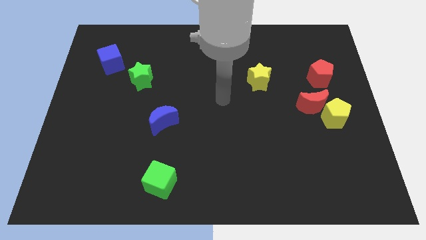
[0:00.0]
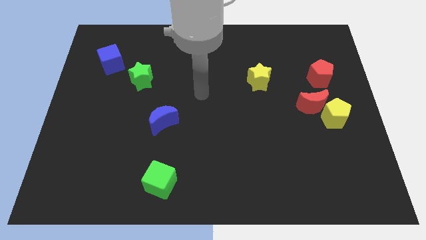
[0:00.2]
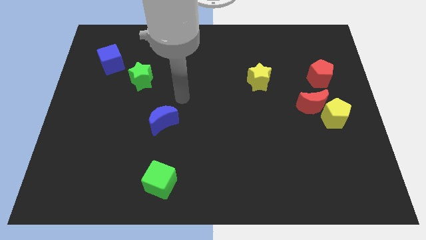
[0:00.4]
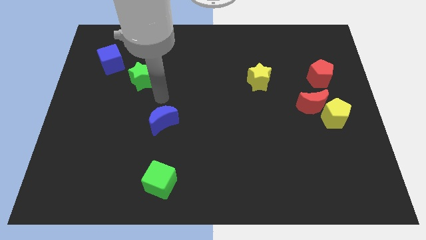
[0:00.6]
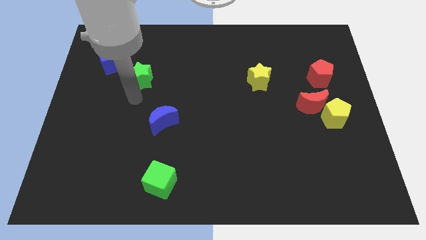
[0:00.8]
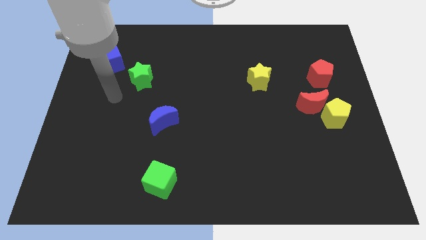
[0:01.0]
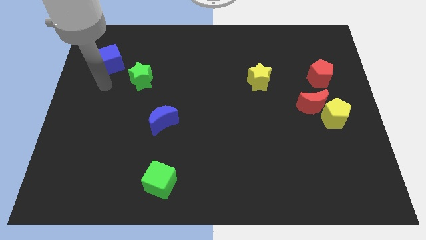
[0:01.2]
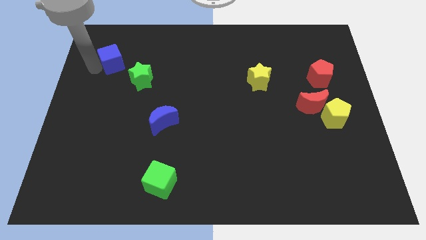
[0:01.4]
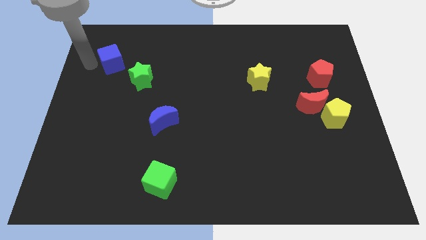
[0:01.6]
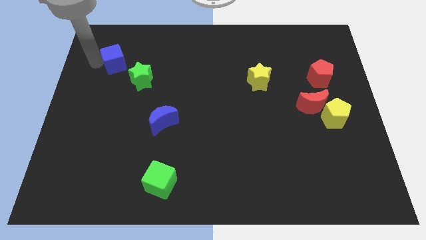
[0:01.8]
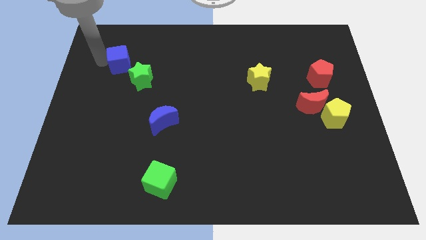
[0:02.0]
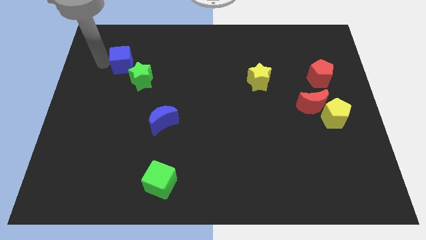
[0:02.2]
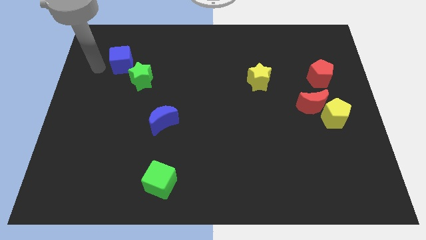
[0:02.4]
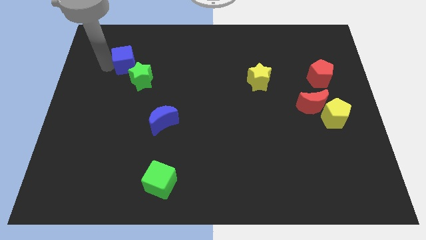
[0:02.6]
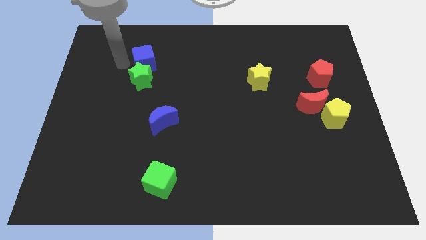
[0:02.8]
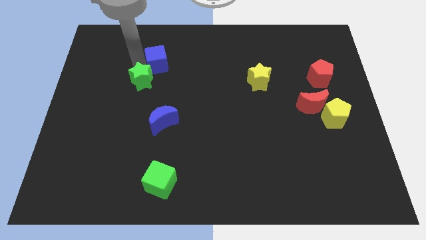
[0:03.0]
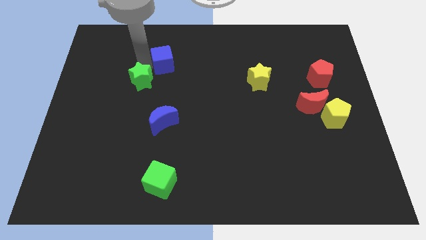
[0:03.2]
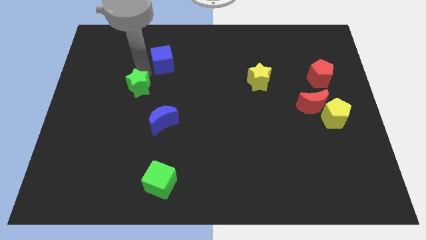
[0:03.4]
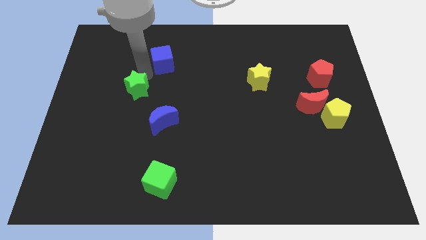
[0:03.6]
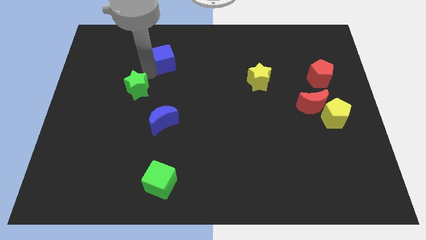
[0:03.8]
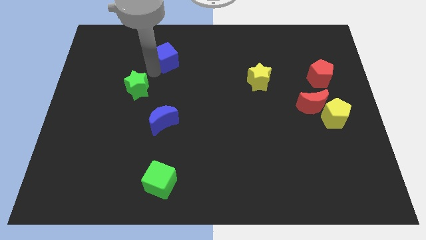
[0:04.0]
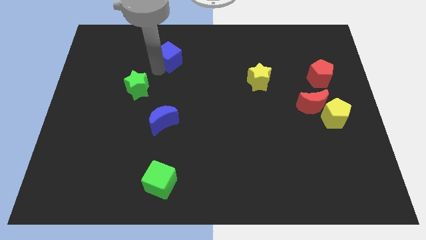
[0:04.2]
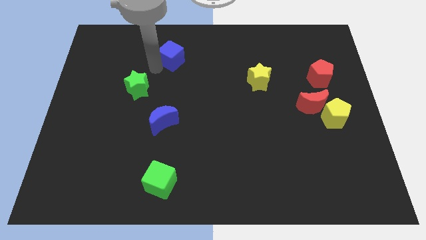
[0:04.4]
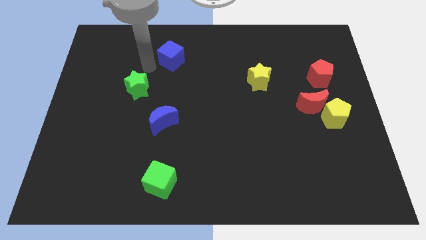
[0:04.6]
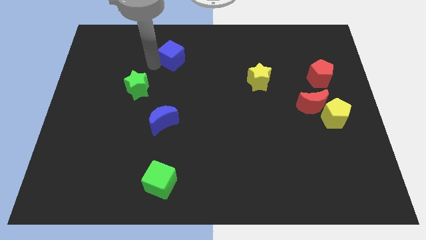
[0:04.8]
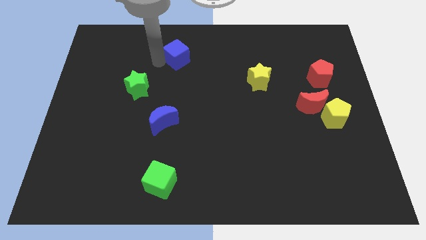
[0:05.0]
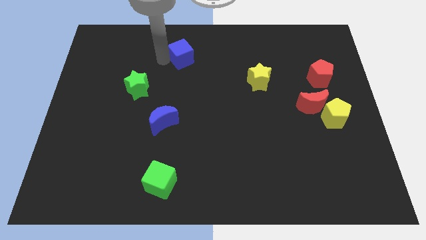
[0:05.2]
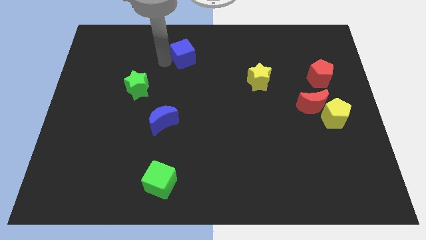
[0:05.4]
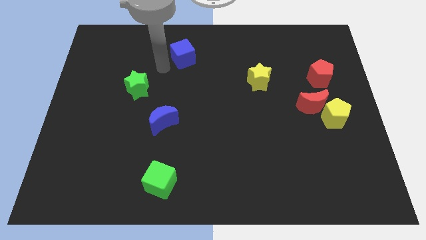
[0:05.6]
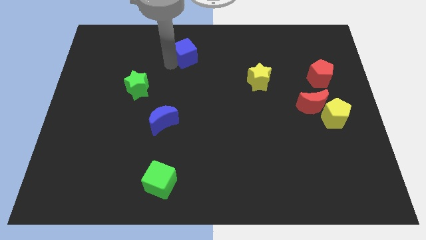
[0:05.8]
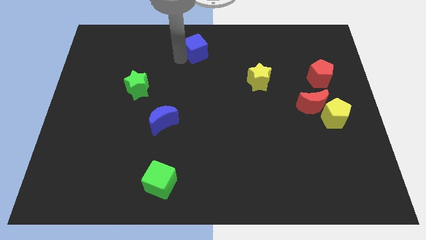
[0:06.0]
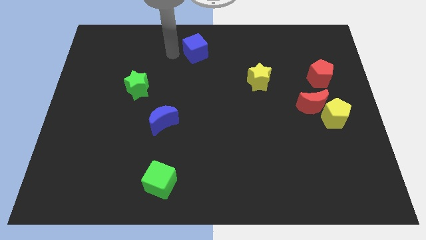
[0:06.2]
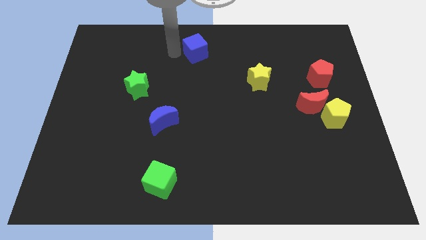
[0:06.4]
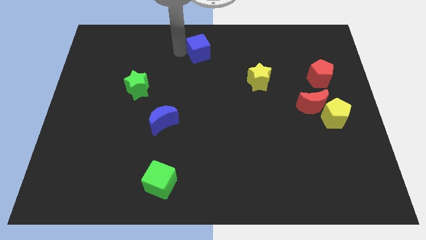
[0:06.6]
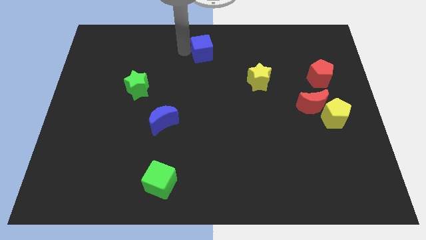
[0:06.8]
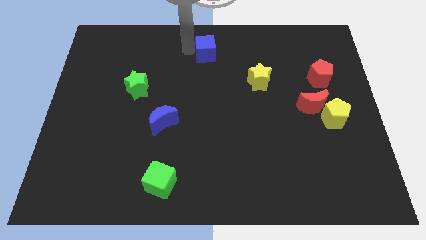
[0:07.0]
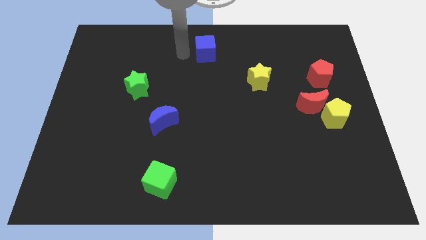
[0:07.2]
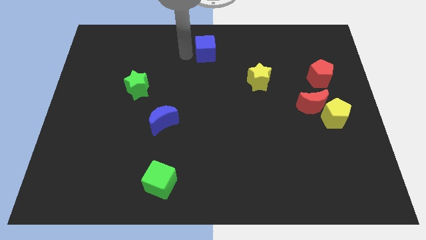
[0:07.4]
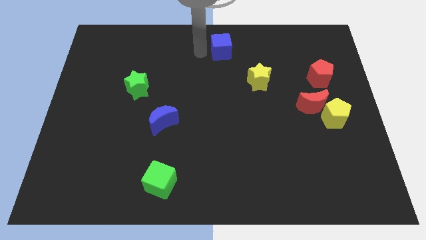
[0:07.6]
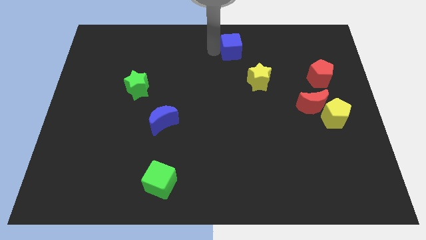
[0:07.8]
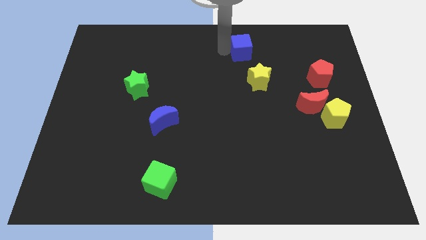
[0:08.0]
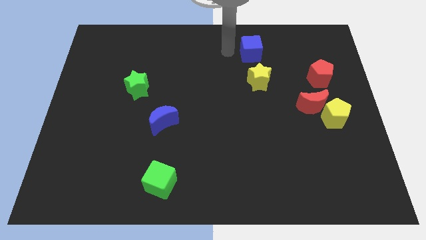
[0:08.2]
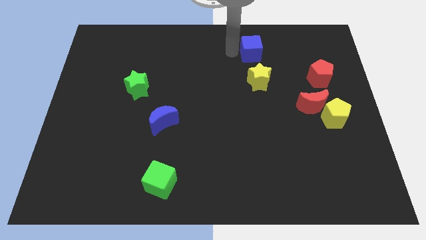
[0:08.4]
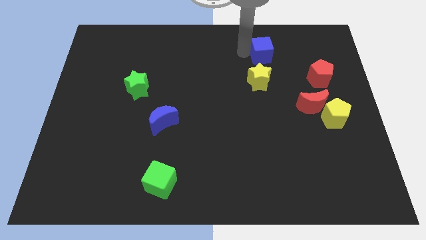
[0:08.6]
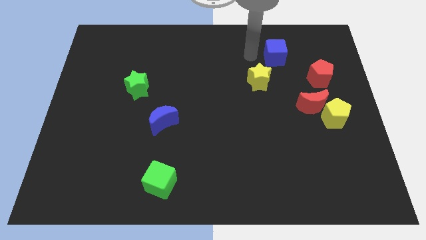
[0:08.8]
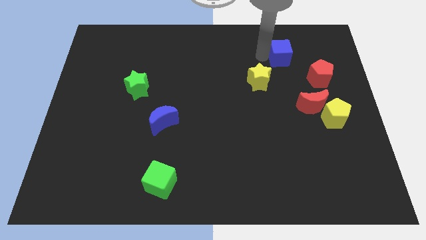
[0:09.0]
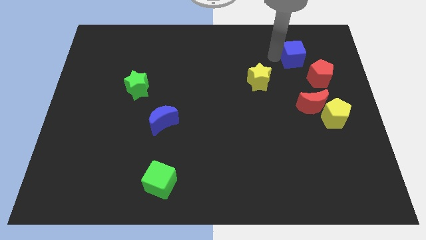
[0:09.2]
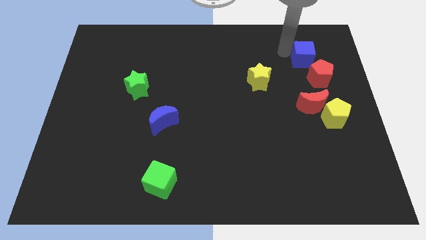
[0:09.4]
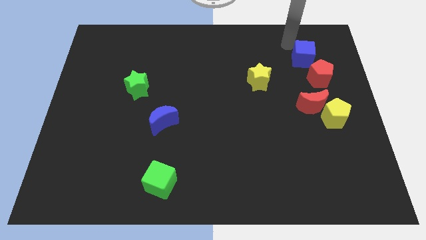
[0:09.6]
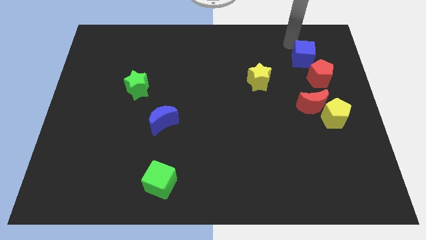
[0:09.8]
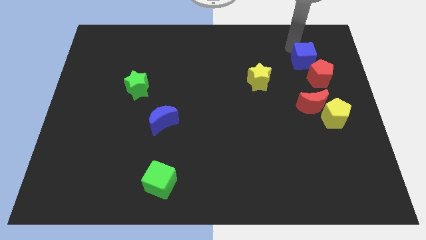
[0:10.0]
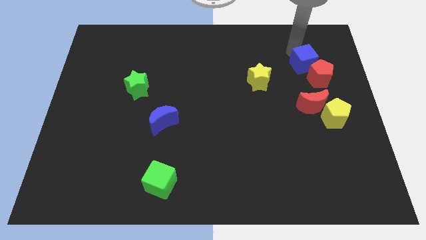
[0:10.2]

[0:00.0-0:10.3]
move the blue cube towards the red pentagon

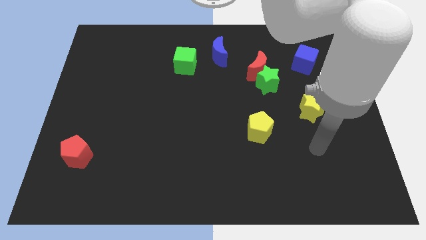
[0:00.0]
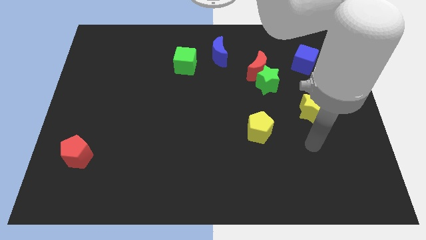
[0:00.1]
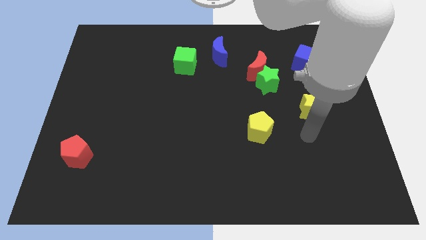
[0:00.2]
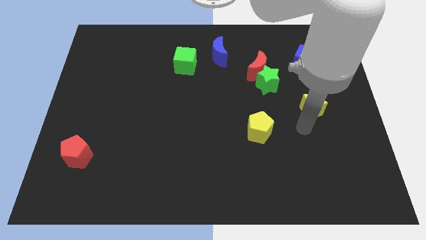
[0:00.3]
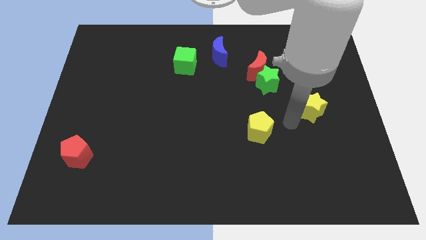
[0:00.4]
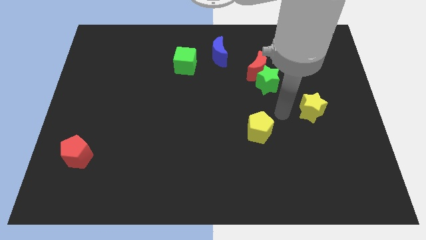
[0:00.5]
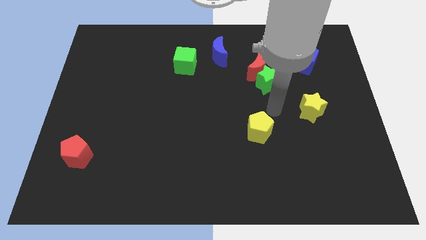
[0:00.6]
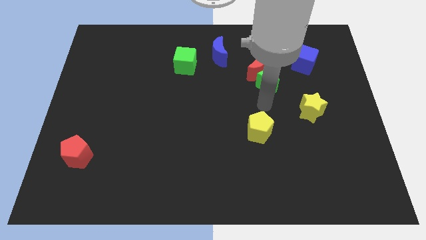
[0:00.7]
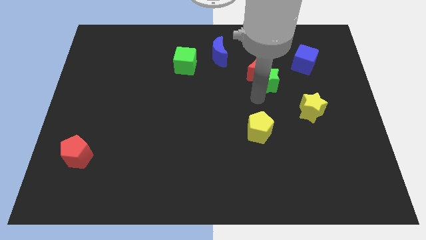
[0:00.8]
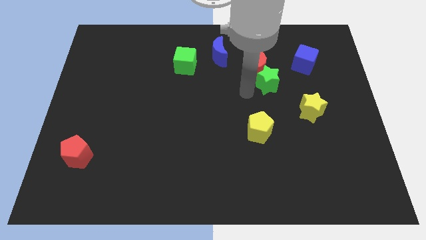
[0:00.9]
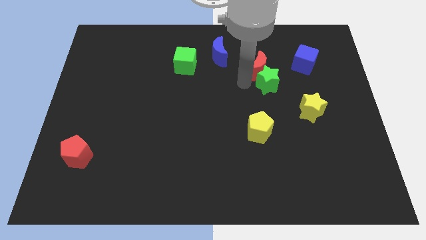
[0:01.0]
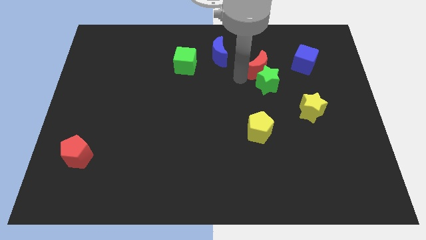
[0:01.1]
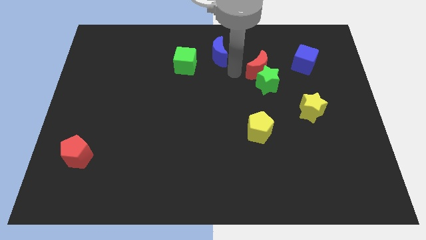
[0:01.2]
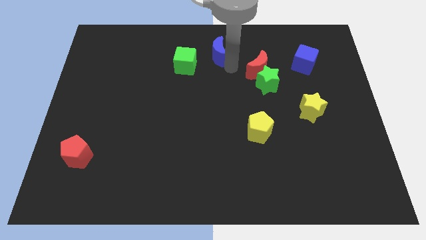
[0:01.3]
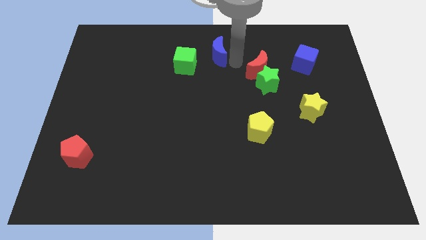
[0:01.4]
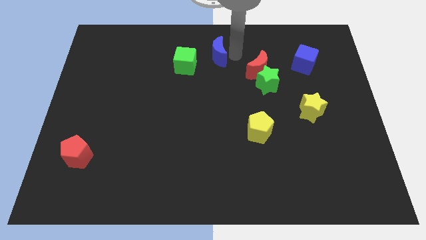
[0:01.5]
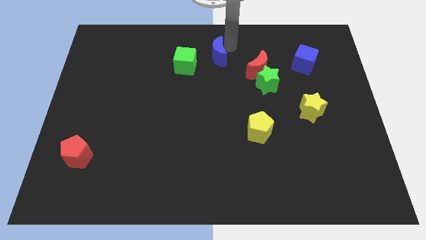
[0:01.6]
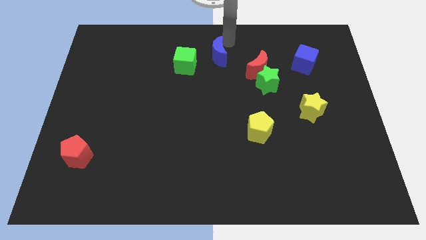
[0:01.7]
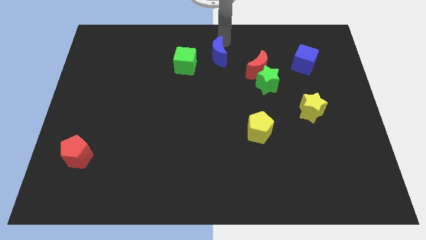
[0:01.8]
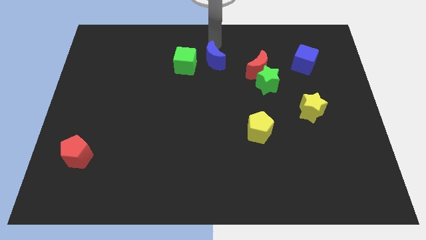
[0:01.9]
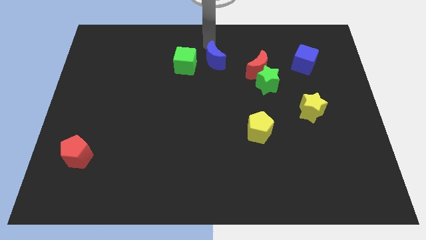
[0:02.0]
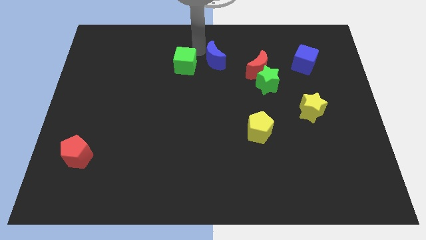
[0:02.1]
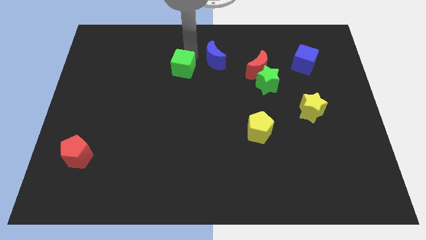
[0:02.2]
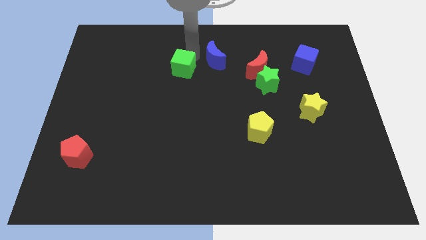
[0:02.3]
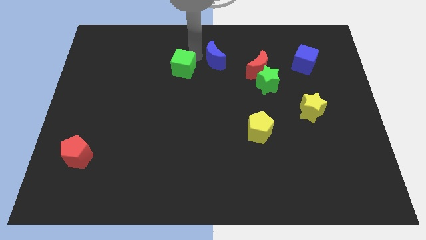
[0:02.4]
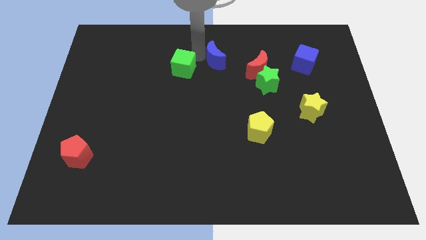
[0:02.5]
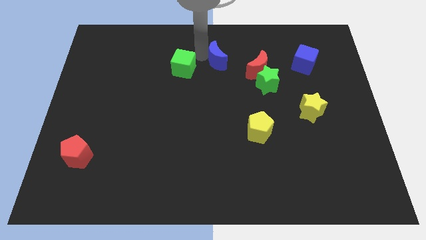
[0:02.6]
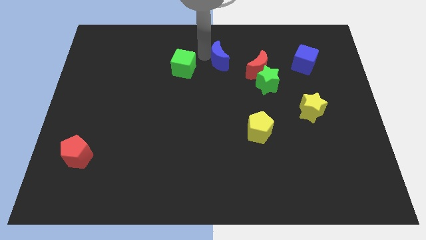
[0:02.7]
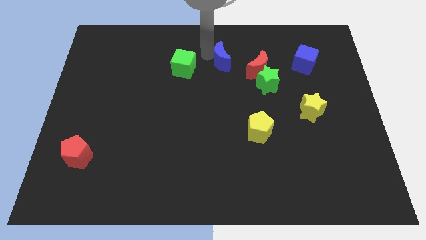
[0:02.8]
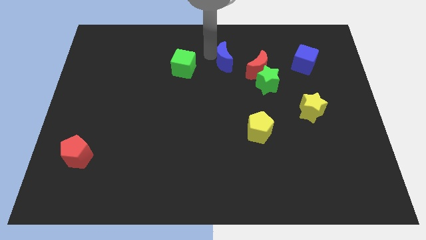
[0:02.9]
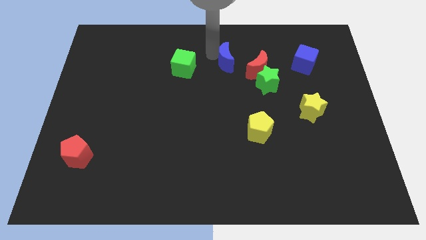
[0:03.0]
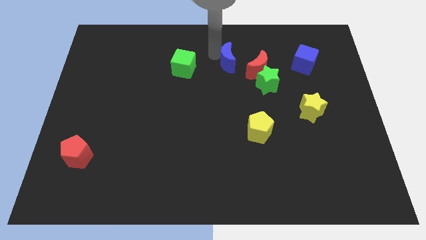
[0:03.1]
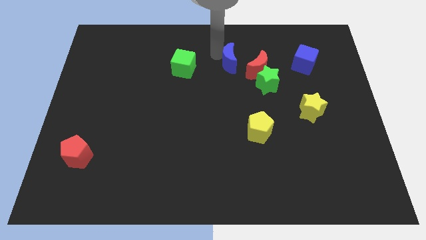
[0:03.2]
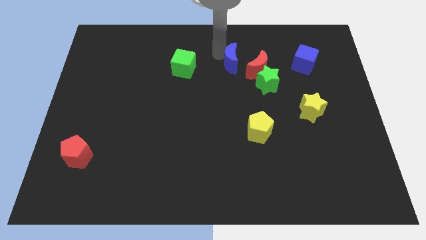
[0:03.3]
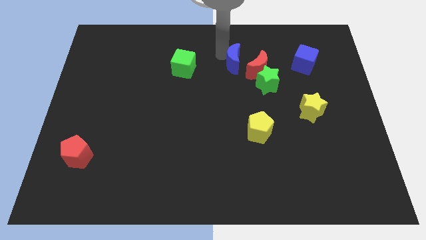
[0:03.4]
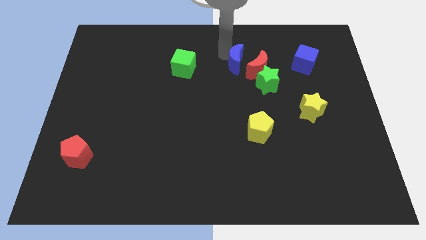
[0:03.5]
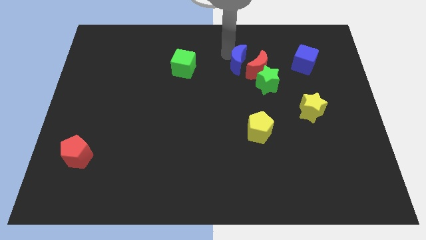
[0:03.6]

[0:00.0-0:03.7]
put the blue moon close to the red moon
